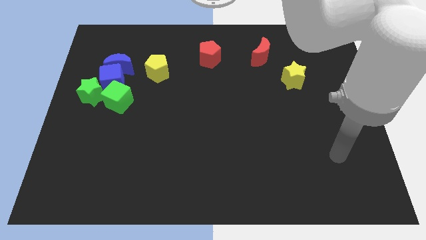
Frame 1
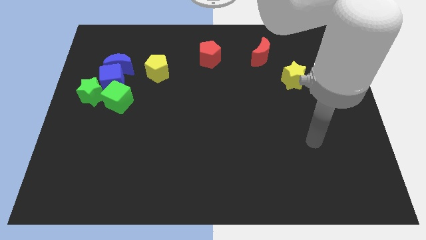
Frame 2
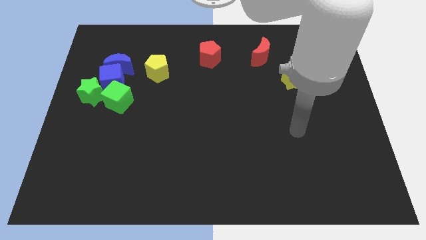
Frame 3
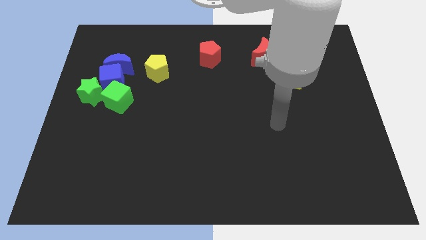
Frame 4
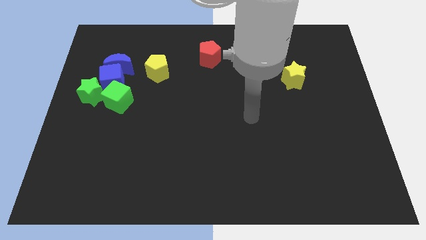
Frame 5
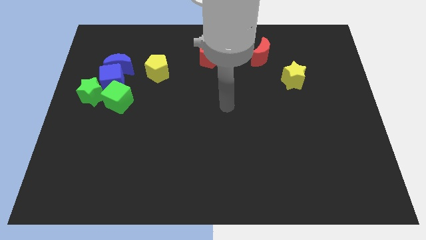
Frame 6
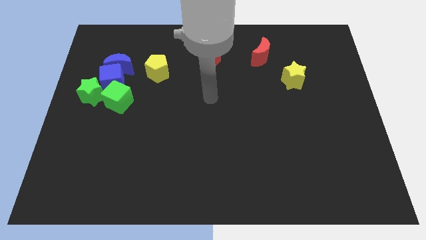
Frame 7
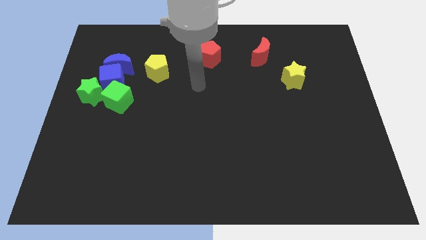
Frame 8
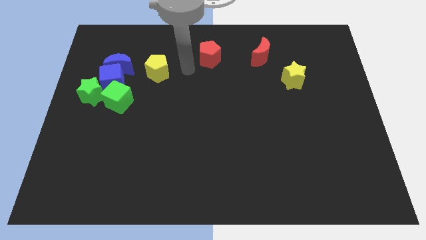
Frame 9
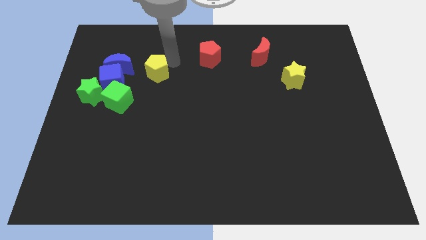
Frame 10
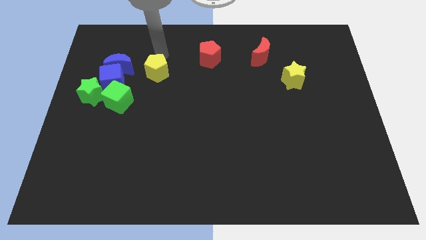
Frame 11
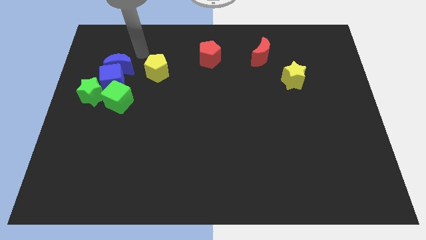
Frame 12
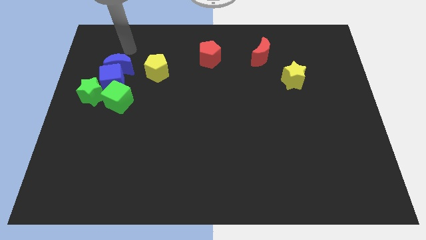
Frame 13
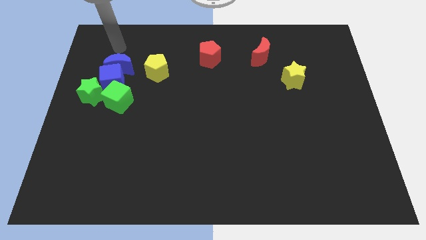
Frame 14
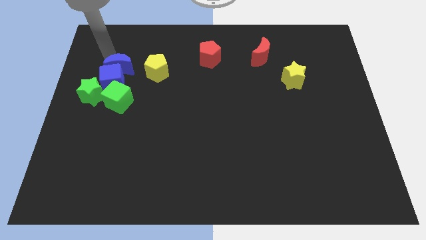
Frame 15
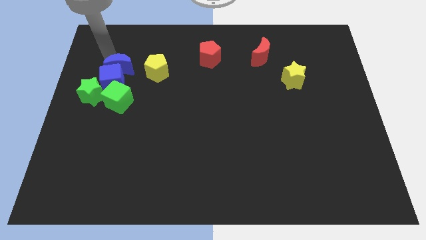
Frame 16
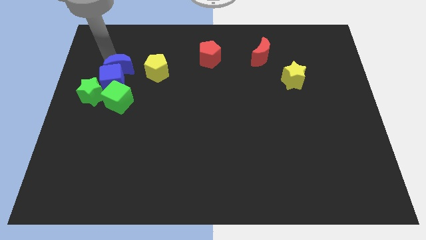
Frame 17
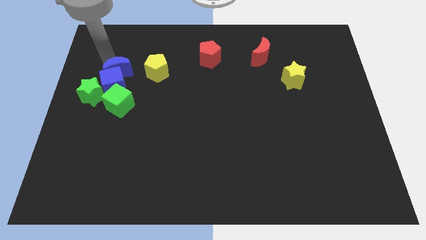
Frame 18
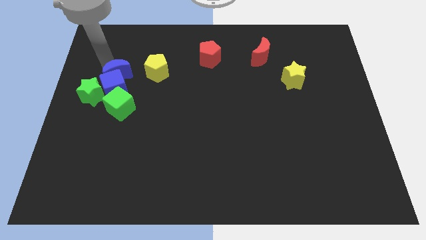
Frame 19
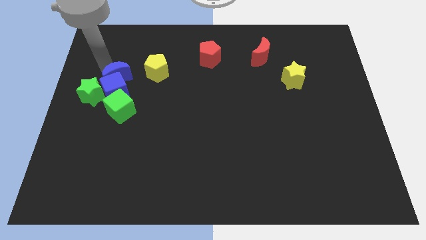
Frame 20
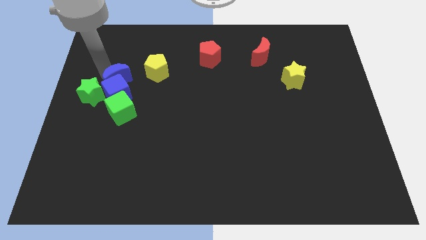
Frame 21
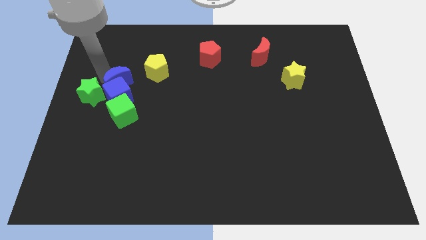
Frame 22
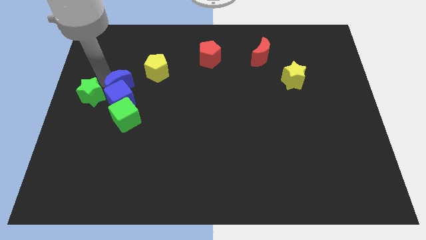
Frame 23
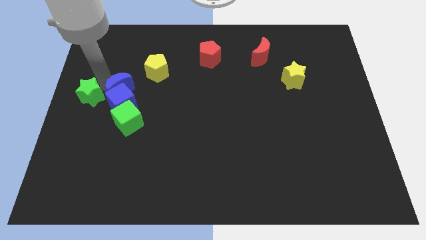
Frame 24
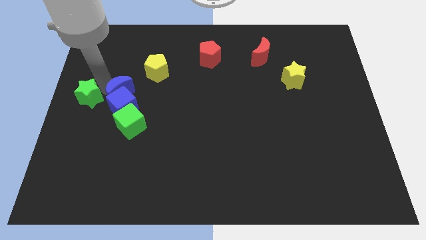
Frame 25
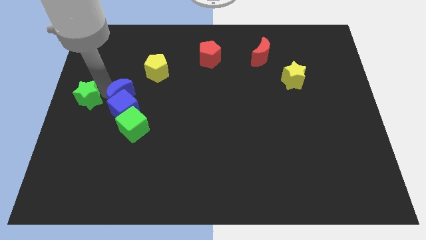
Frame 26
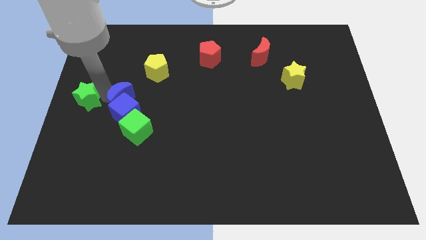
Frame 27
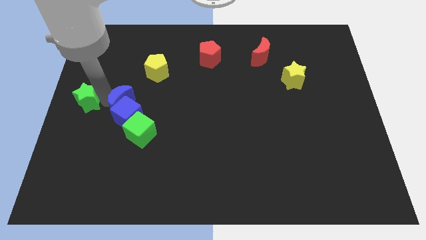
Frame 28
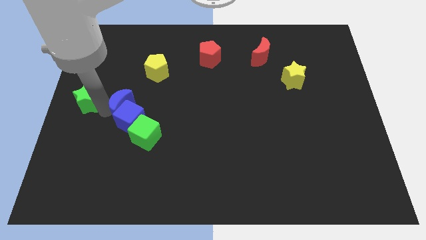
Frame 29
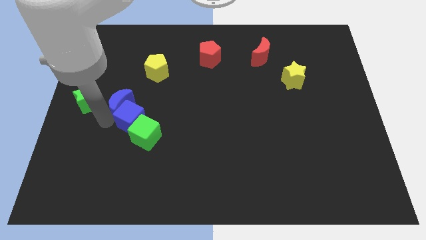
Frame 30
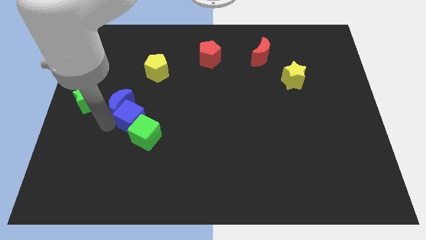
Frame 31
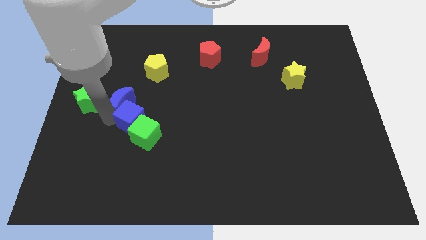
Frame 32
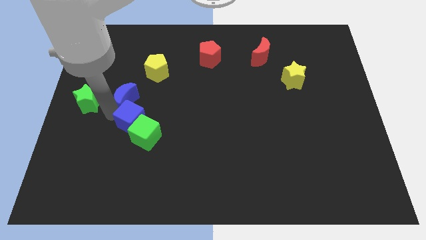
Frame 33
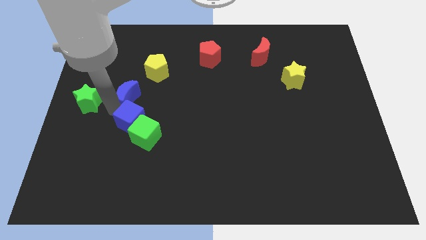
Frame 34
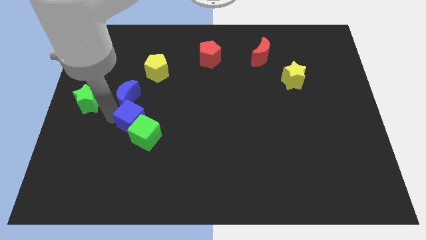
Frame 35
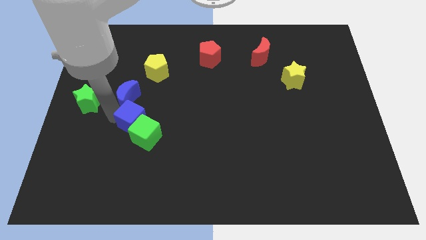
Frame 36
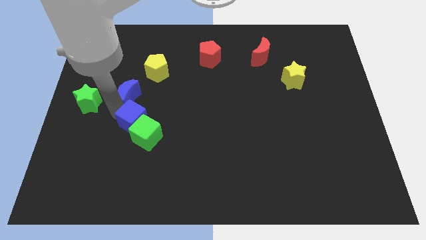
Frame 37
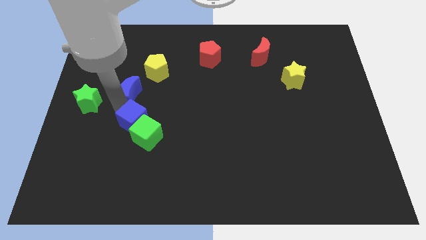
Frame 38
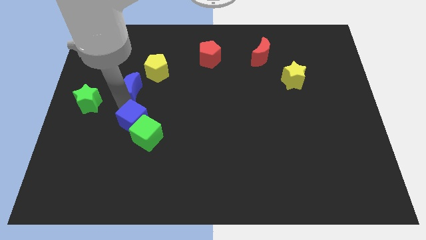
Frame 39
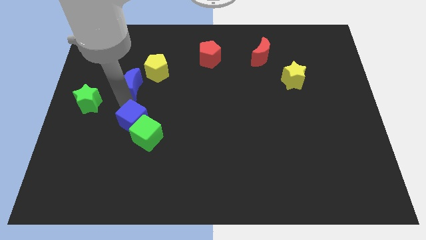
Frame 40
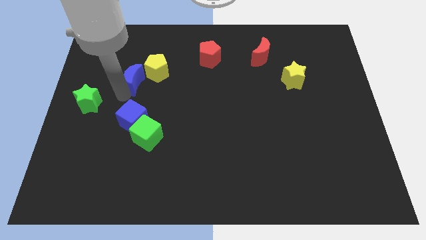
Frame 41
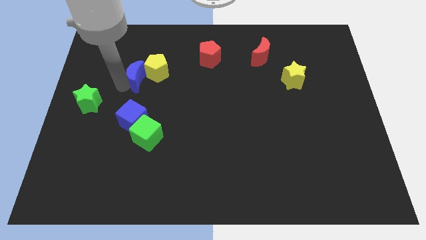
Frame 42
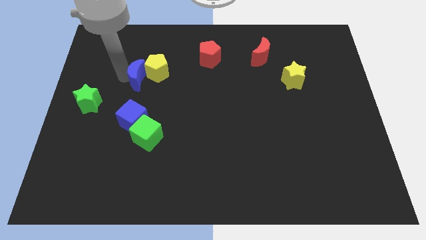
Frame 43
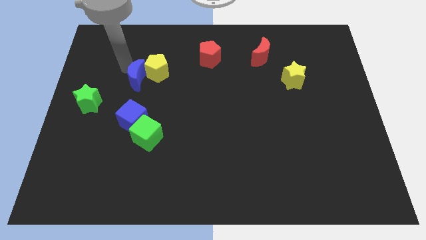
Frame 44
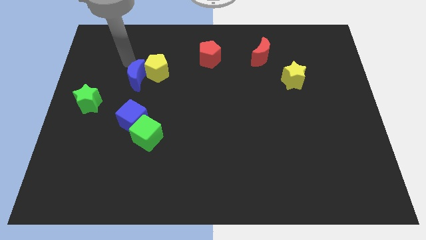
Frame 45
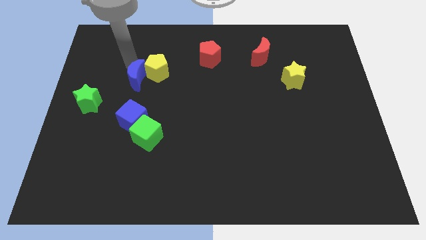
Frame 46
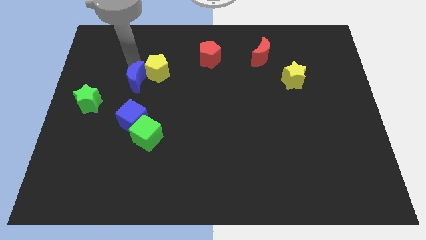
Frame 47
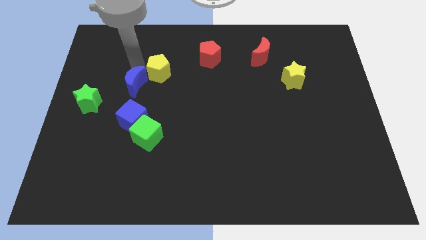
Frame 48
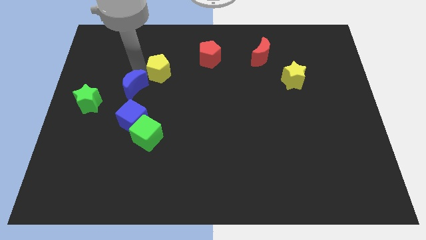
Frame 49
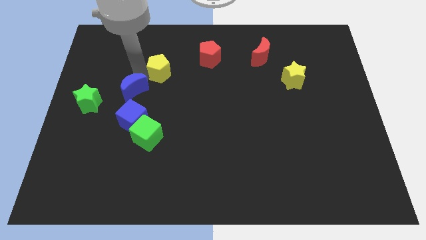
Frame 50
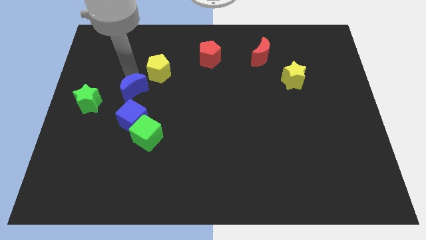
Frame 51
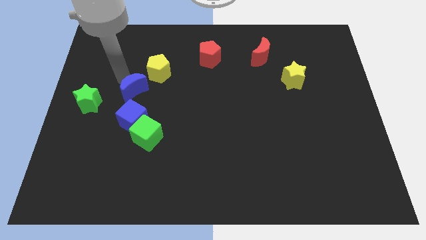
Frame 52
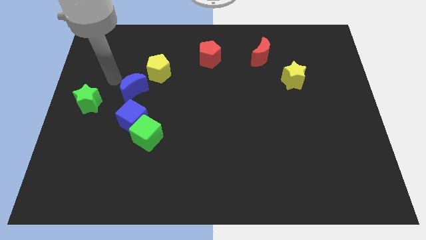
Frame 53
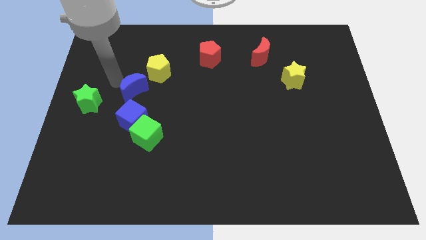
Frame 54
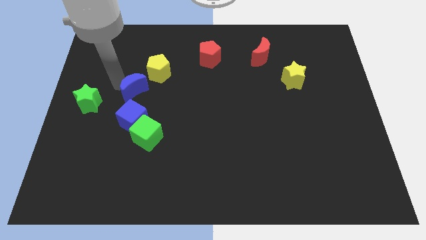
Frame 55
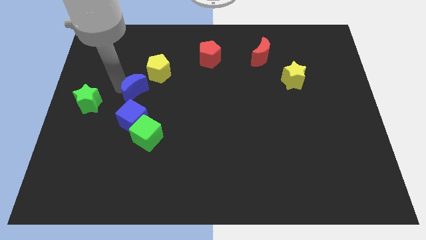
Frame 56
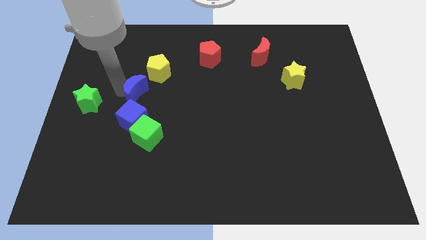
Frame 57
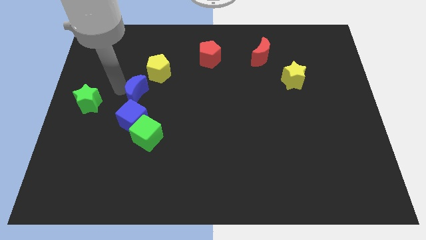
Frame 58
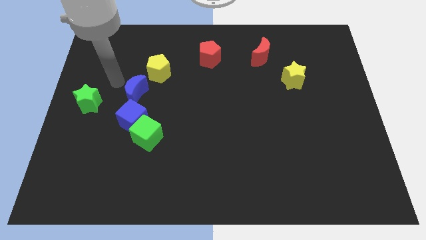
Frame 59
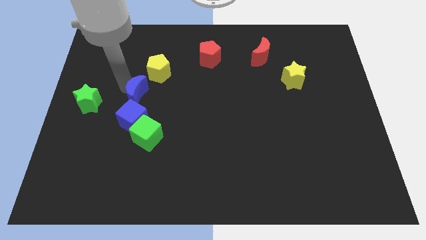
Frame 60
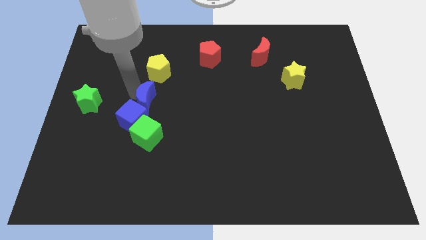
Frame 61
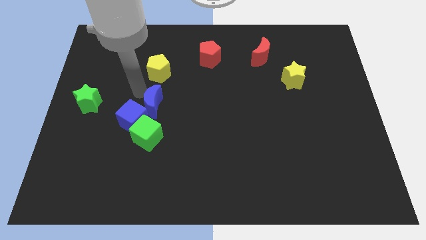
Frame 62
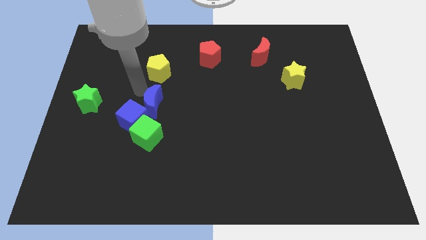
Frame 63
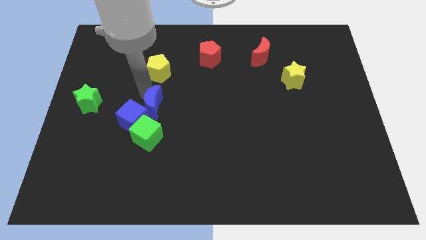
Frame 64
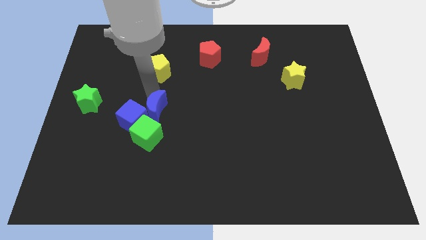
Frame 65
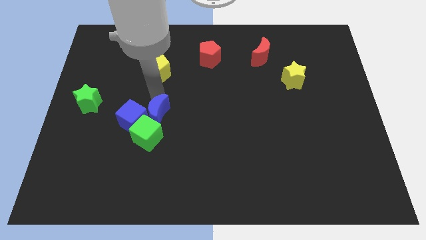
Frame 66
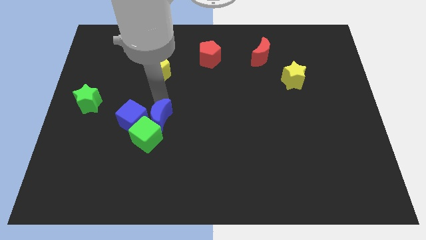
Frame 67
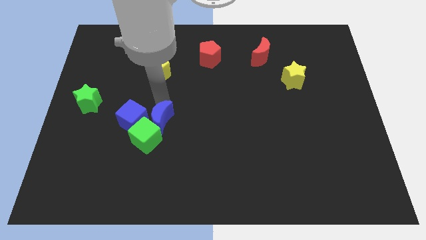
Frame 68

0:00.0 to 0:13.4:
move the blue moon downwards and then right

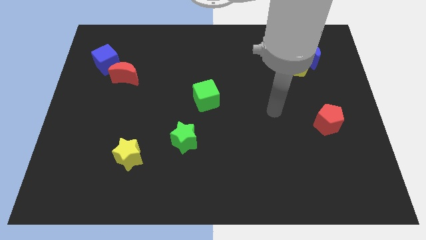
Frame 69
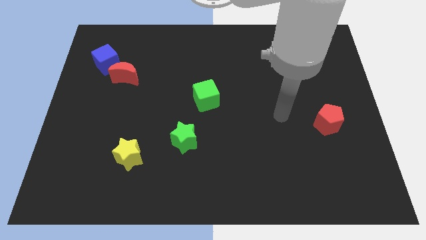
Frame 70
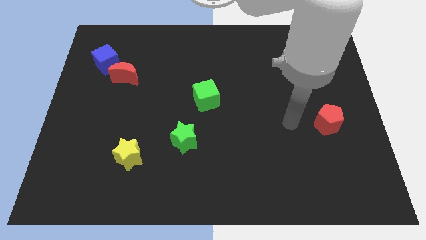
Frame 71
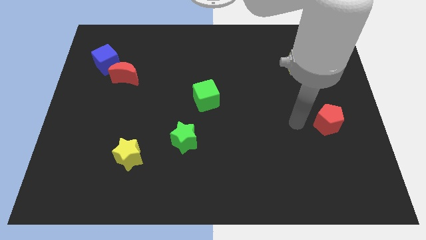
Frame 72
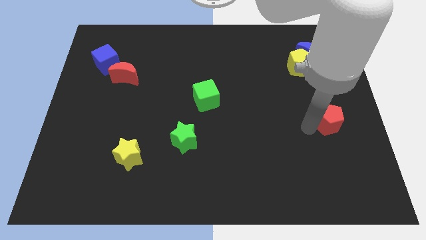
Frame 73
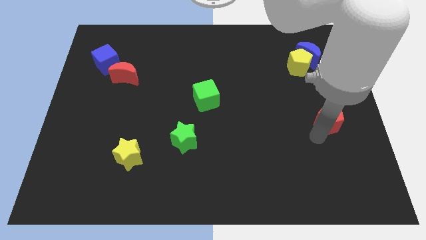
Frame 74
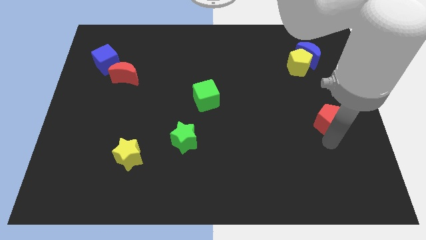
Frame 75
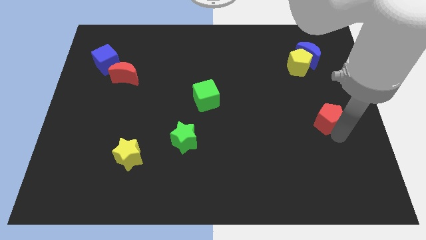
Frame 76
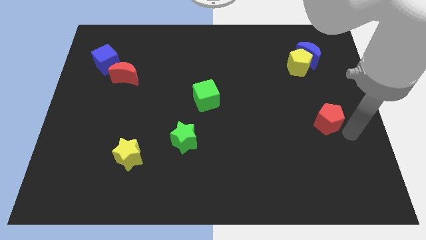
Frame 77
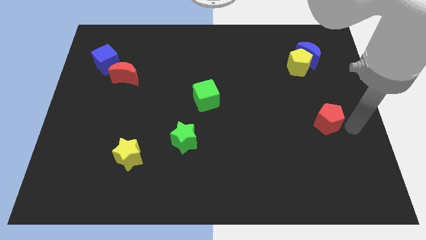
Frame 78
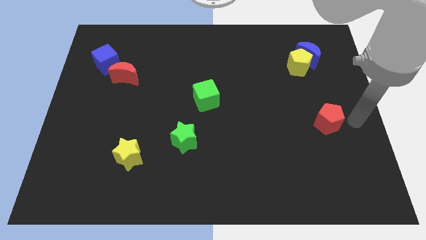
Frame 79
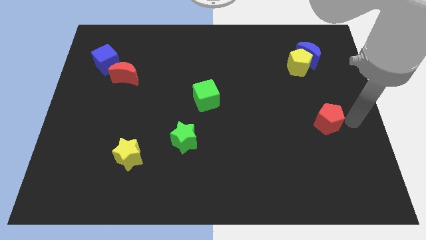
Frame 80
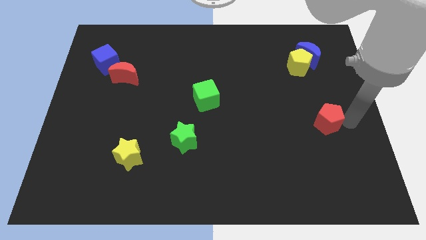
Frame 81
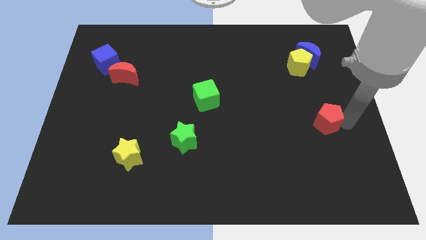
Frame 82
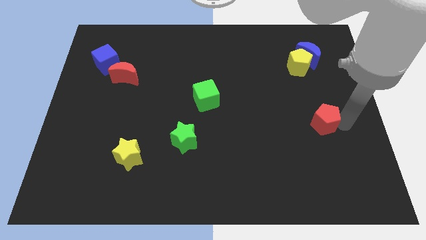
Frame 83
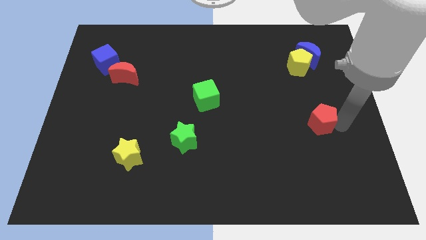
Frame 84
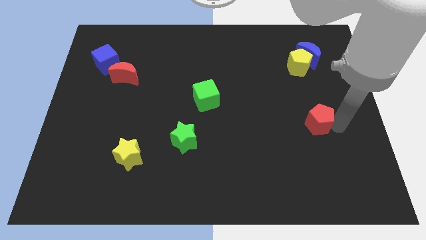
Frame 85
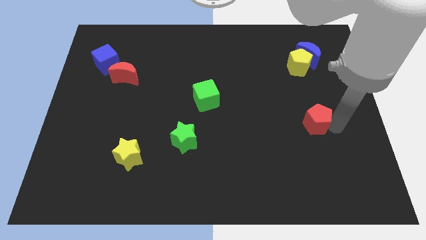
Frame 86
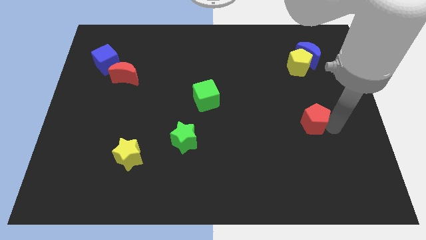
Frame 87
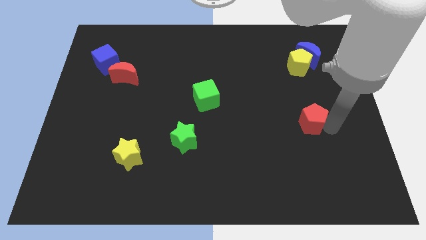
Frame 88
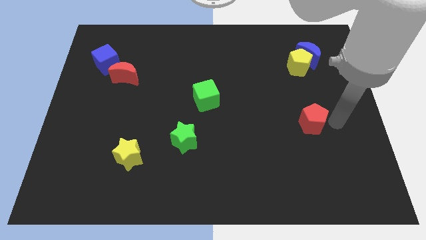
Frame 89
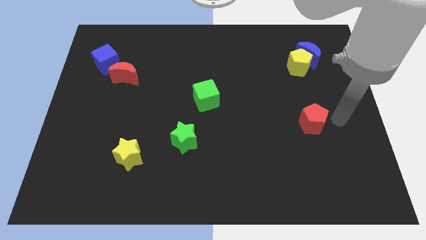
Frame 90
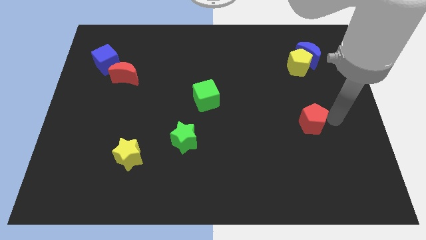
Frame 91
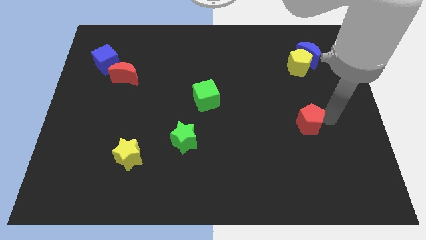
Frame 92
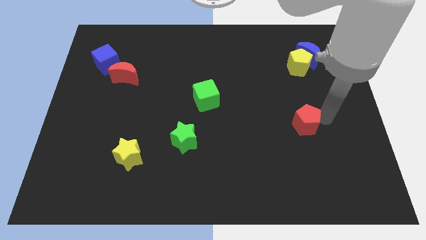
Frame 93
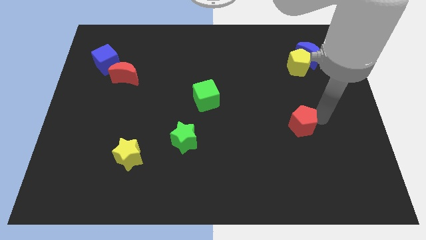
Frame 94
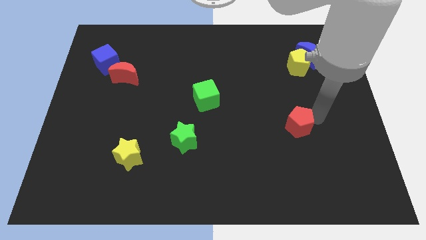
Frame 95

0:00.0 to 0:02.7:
slightly slide the red pentagon to the left
